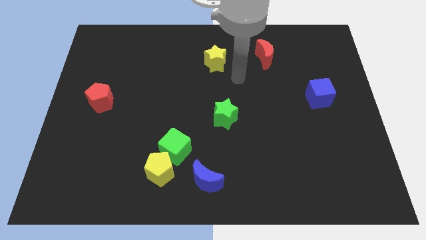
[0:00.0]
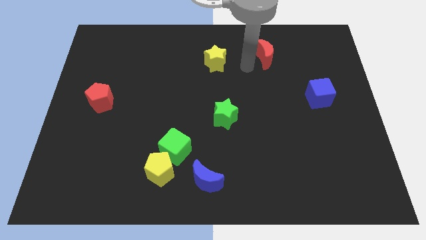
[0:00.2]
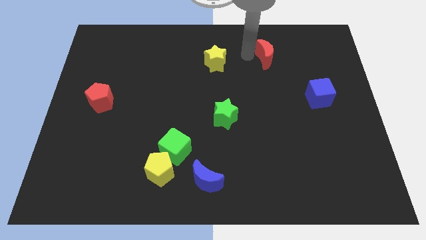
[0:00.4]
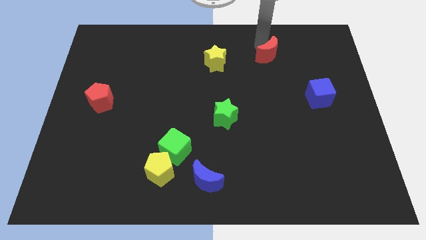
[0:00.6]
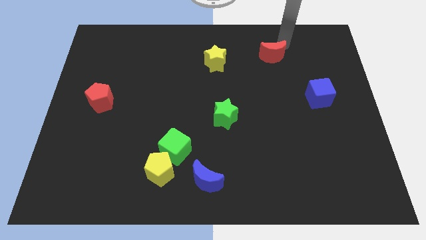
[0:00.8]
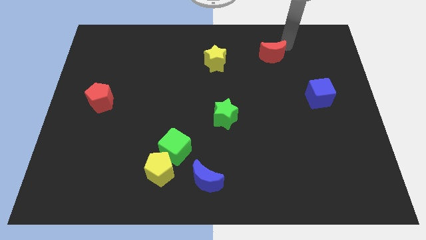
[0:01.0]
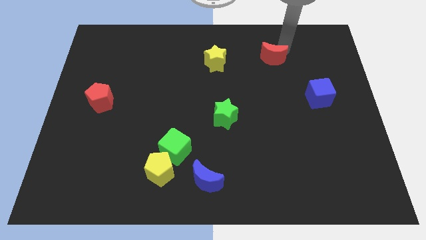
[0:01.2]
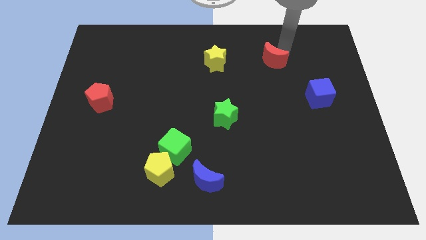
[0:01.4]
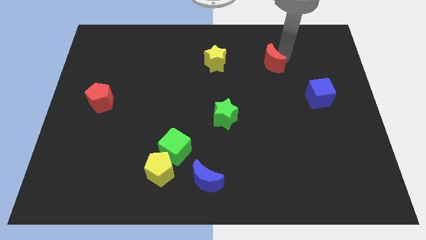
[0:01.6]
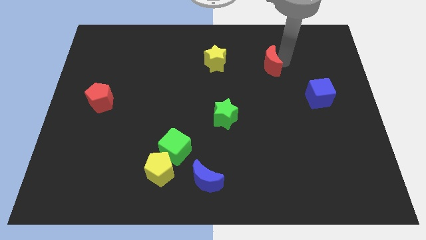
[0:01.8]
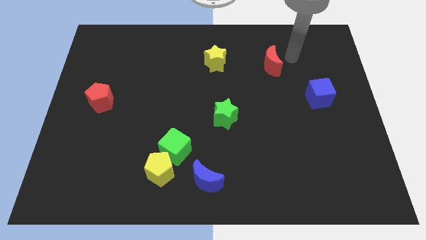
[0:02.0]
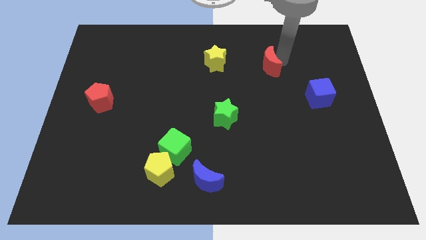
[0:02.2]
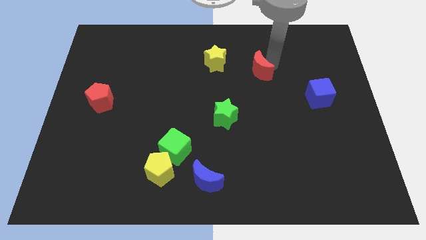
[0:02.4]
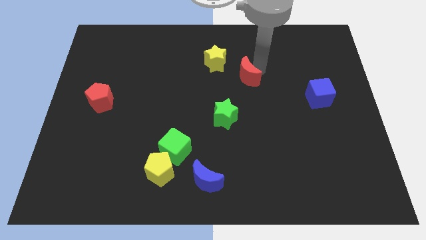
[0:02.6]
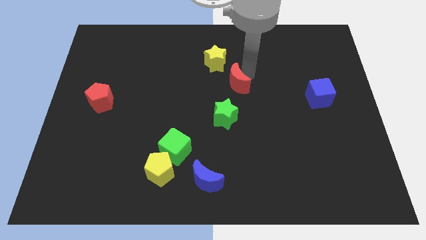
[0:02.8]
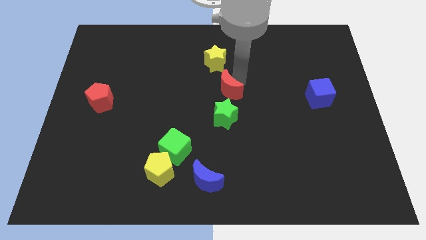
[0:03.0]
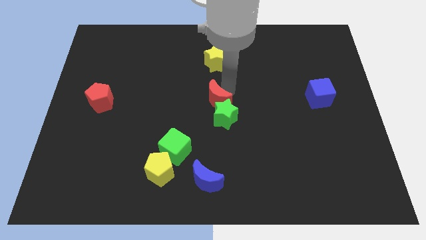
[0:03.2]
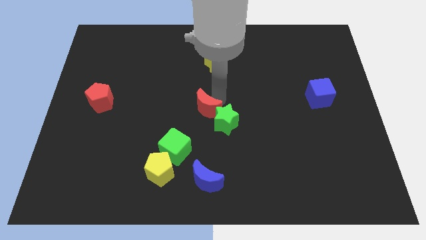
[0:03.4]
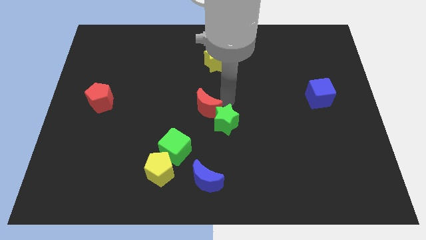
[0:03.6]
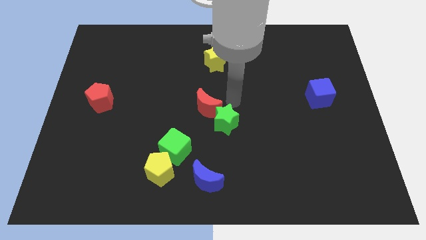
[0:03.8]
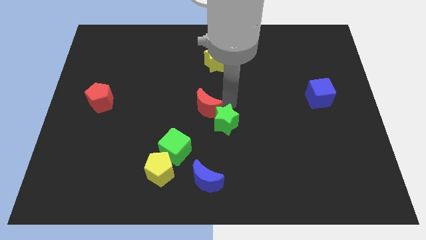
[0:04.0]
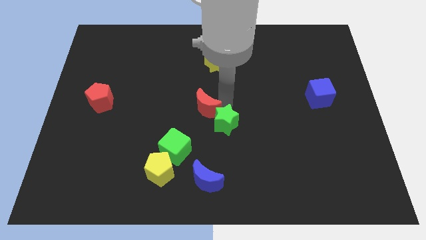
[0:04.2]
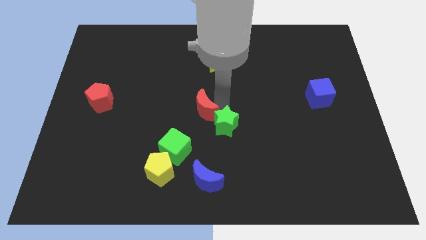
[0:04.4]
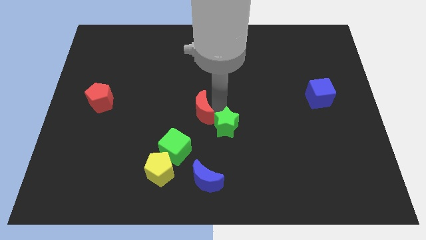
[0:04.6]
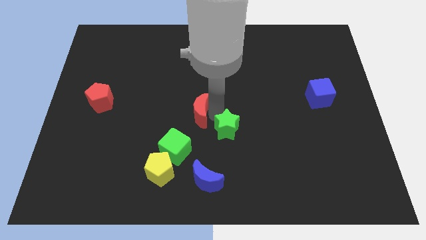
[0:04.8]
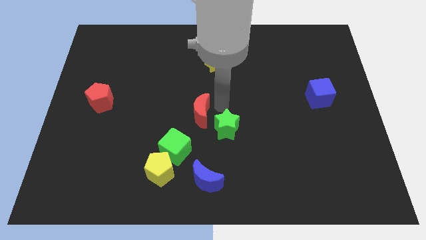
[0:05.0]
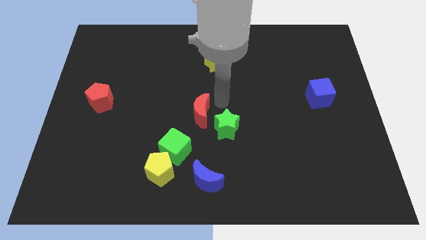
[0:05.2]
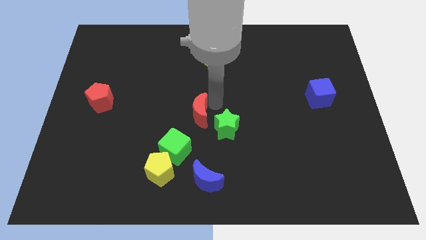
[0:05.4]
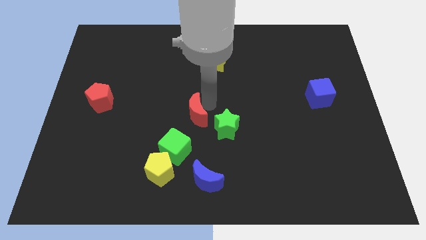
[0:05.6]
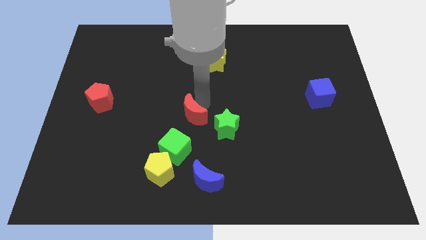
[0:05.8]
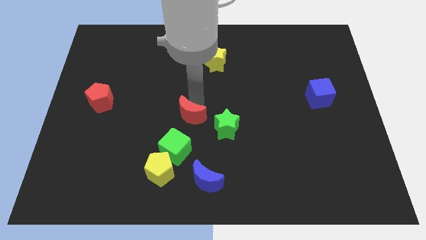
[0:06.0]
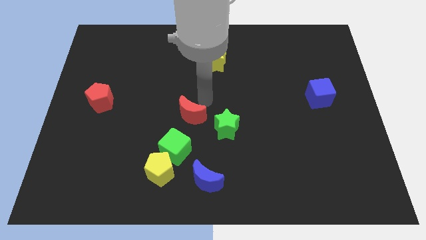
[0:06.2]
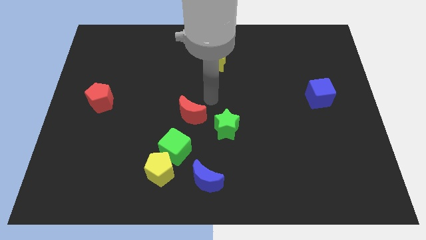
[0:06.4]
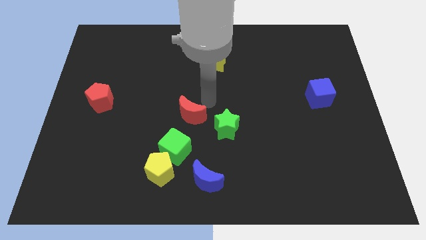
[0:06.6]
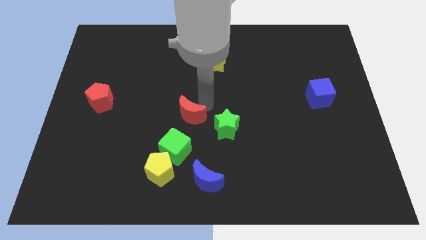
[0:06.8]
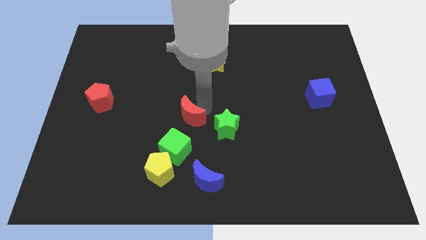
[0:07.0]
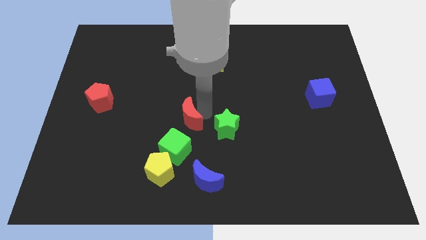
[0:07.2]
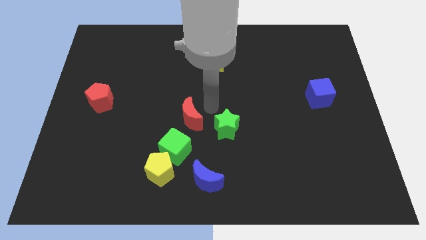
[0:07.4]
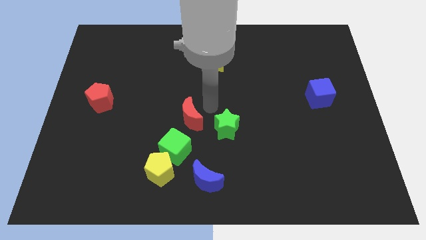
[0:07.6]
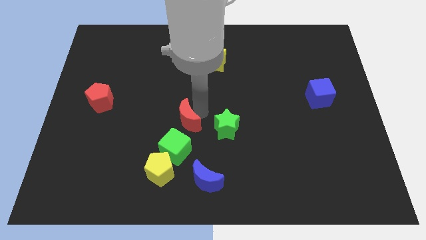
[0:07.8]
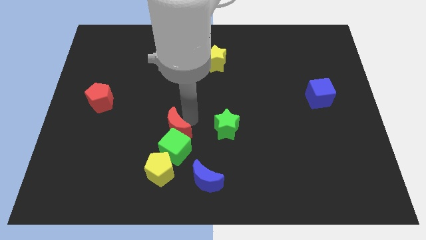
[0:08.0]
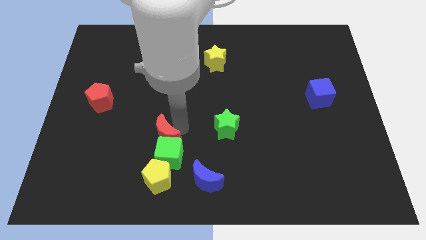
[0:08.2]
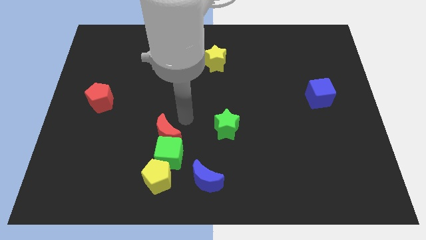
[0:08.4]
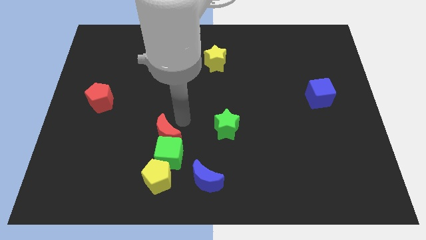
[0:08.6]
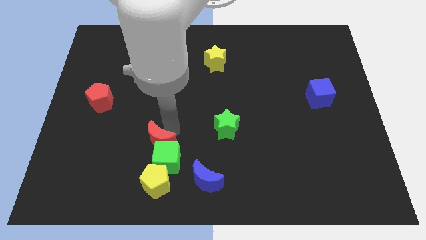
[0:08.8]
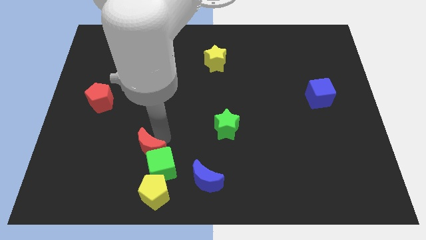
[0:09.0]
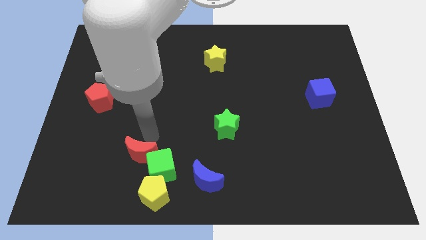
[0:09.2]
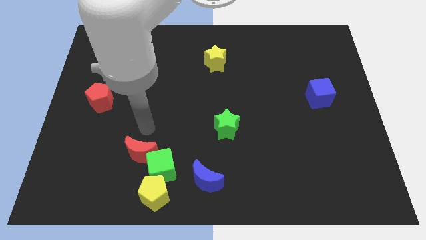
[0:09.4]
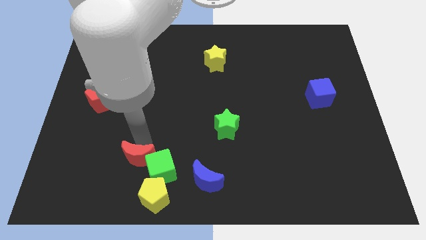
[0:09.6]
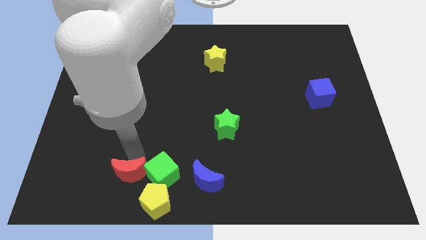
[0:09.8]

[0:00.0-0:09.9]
slide the red moon to the bottom left side of the green cube

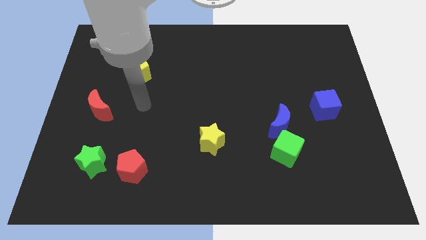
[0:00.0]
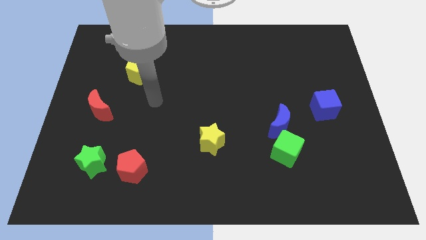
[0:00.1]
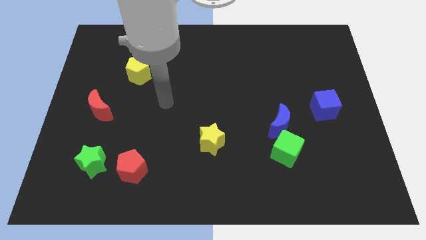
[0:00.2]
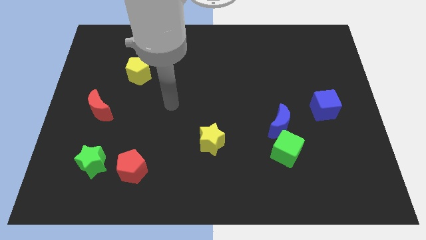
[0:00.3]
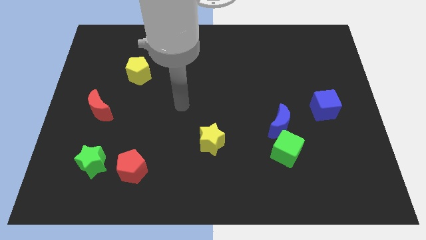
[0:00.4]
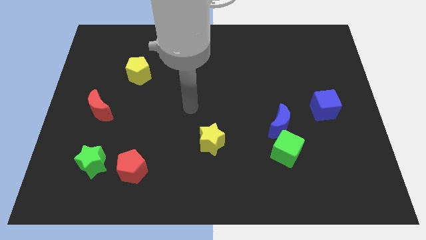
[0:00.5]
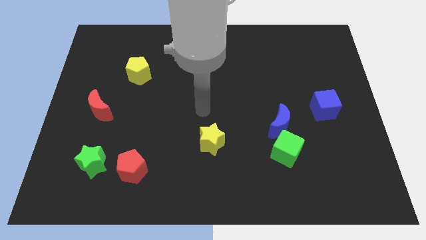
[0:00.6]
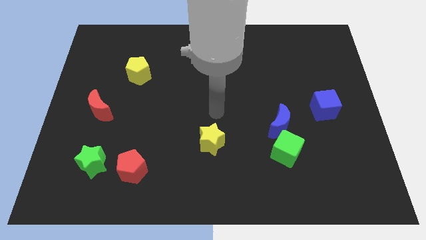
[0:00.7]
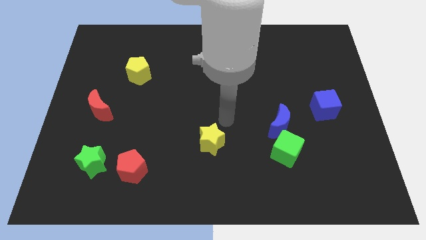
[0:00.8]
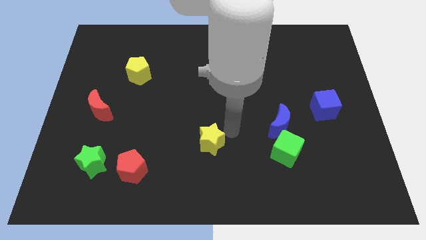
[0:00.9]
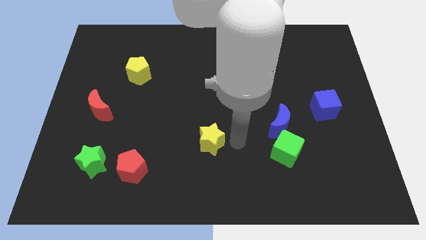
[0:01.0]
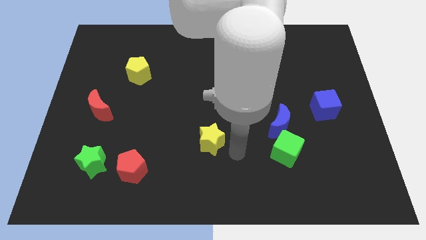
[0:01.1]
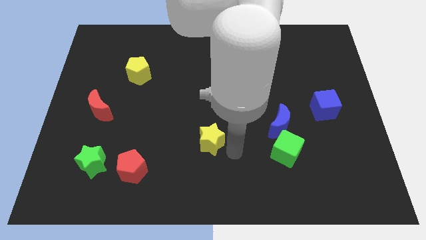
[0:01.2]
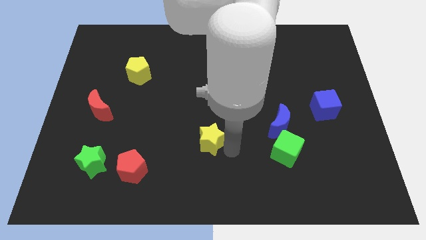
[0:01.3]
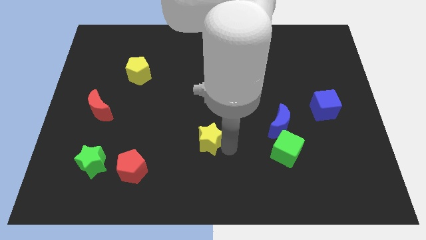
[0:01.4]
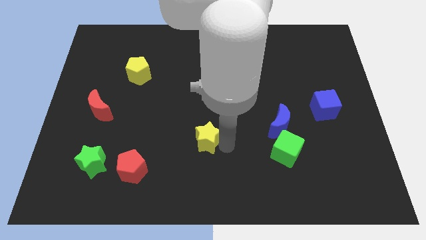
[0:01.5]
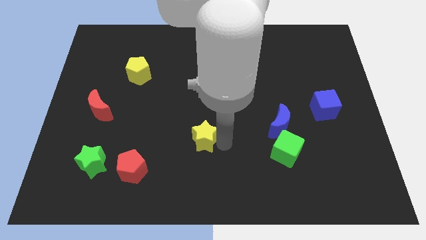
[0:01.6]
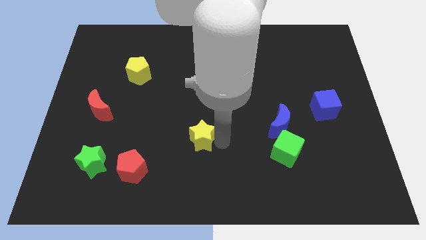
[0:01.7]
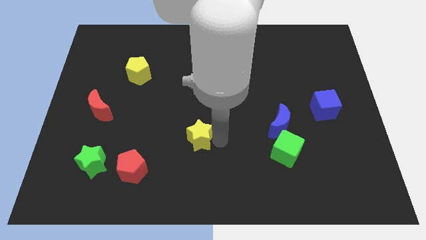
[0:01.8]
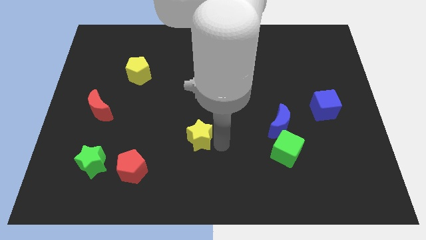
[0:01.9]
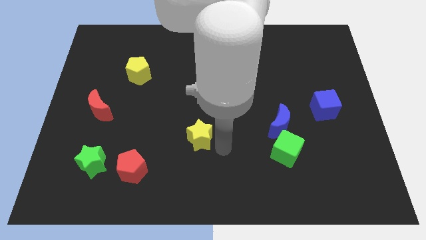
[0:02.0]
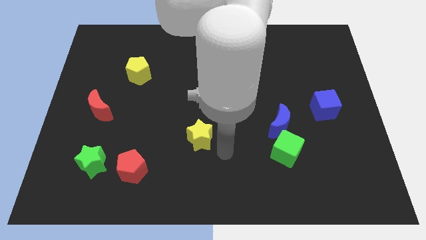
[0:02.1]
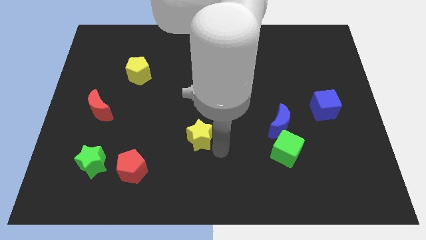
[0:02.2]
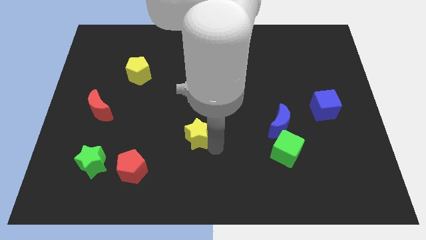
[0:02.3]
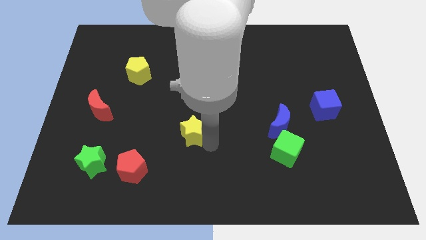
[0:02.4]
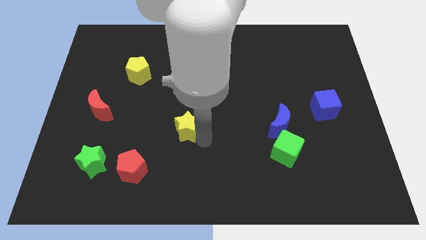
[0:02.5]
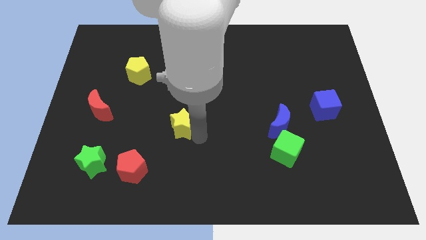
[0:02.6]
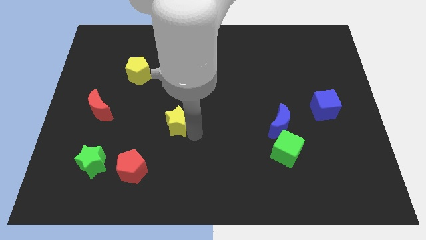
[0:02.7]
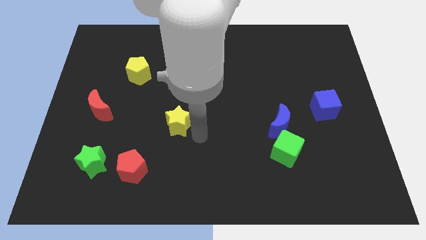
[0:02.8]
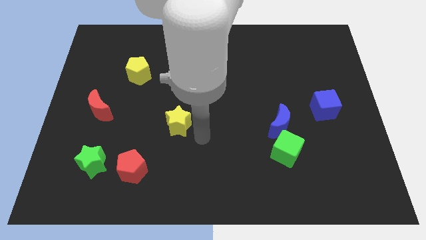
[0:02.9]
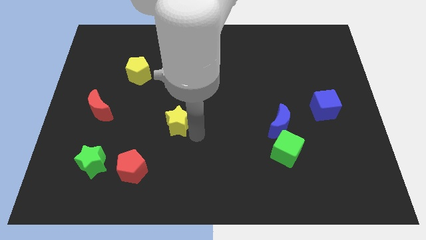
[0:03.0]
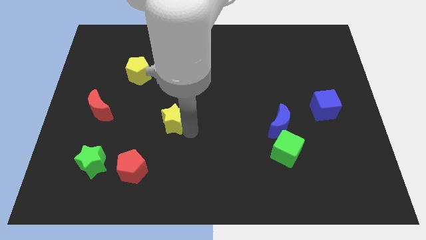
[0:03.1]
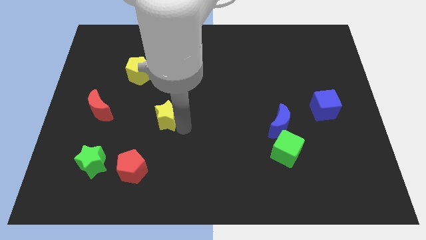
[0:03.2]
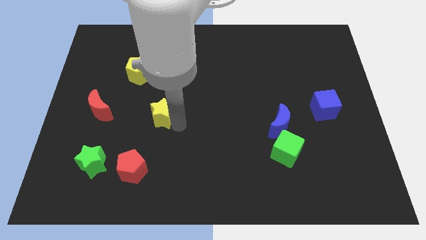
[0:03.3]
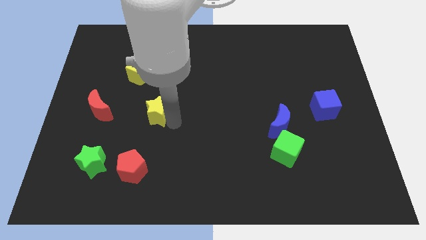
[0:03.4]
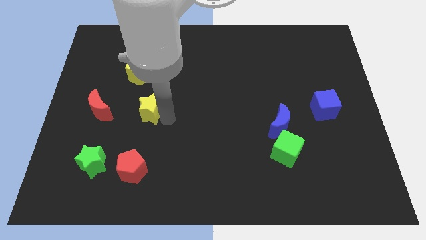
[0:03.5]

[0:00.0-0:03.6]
slide the yellow star to the bottom side of the yellow pentagon
